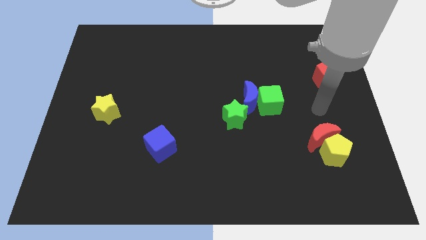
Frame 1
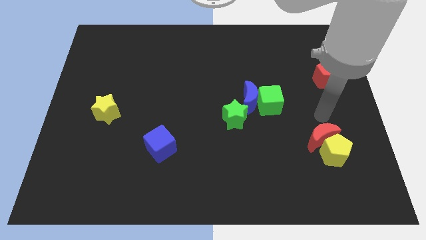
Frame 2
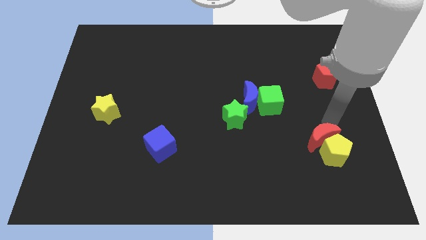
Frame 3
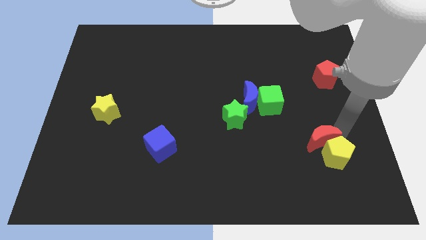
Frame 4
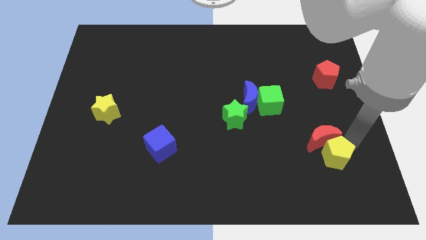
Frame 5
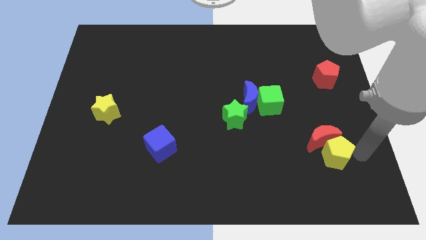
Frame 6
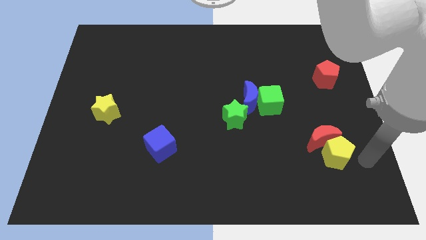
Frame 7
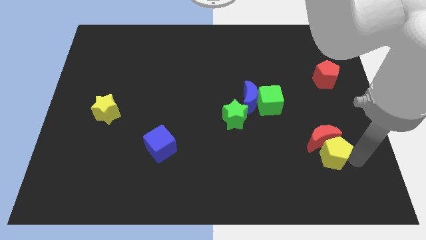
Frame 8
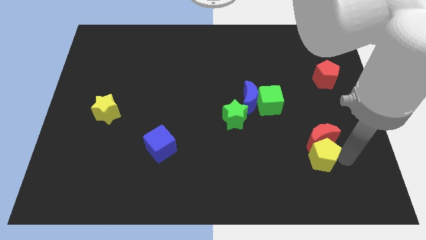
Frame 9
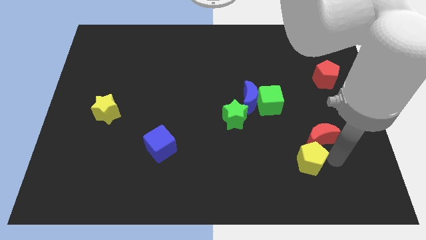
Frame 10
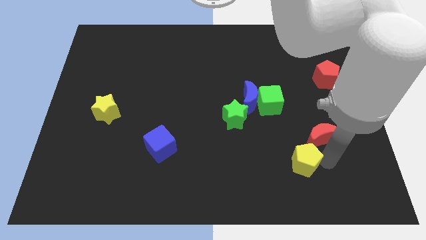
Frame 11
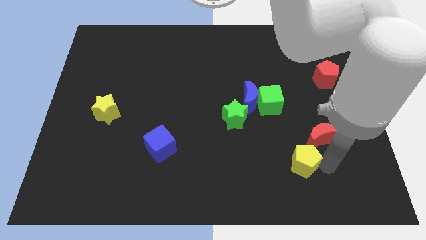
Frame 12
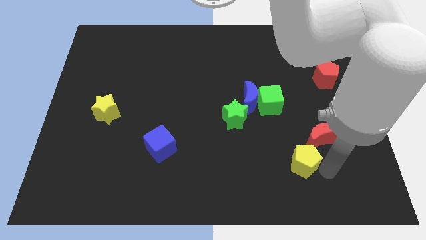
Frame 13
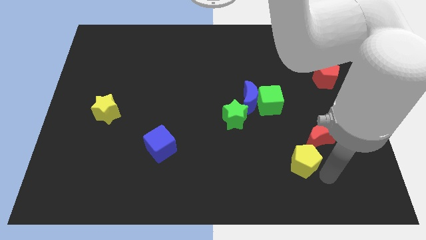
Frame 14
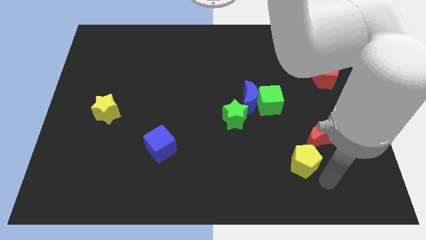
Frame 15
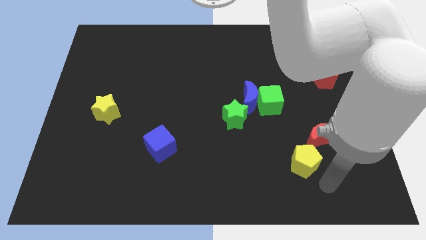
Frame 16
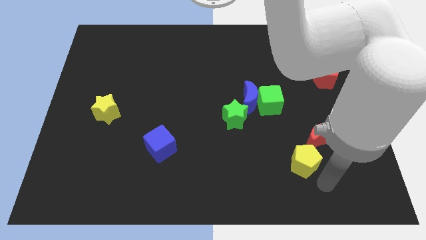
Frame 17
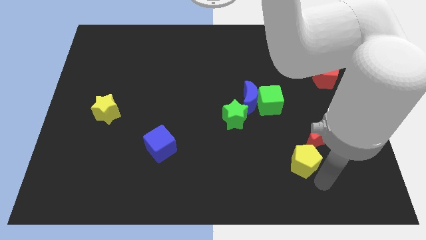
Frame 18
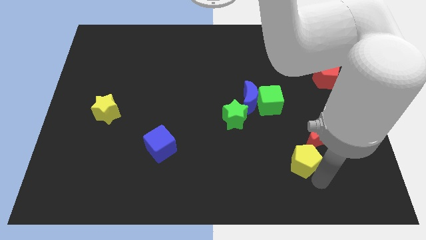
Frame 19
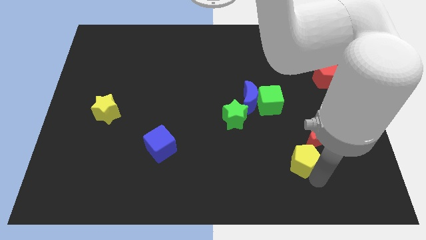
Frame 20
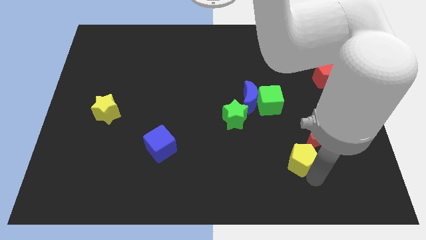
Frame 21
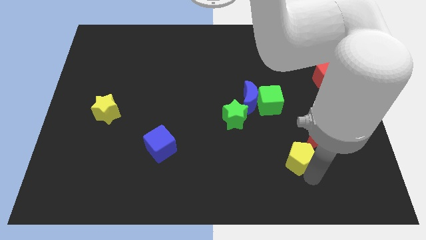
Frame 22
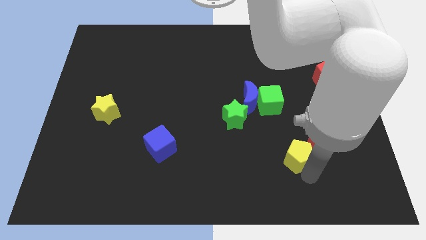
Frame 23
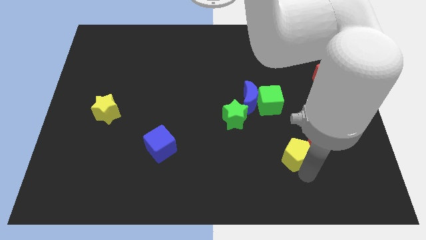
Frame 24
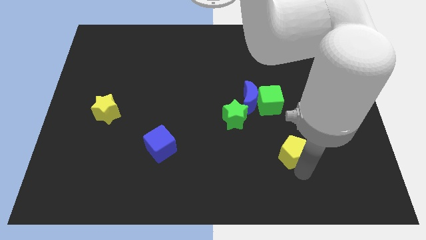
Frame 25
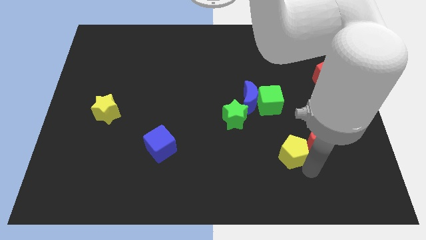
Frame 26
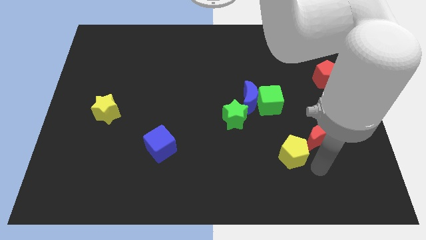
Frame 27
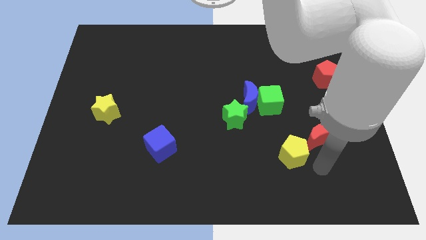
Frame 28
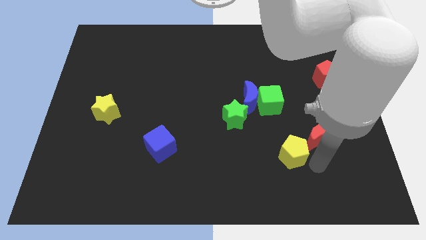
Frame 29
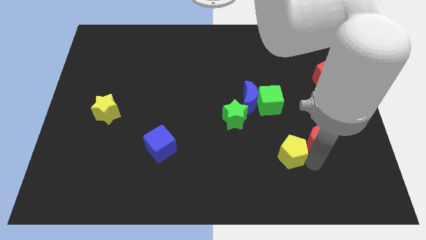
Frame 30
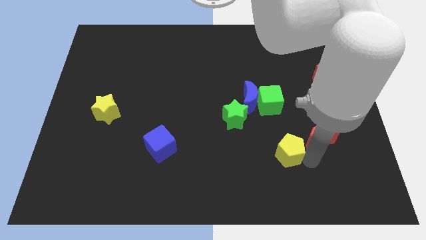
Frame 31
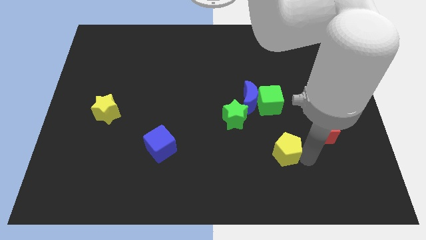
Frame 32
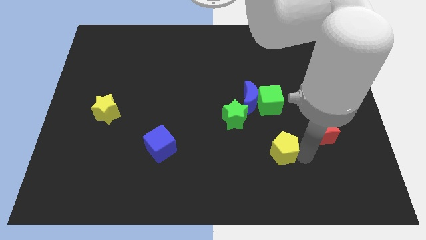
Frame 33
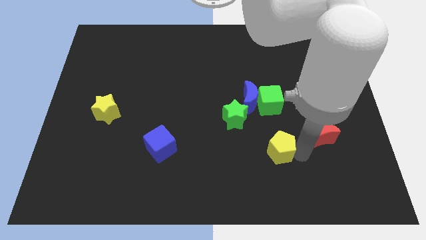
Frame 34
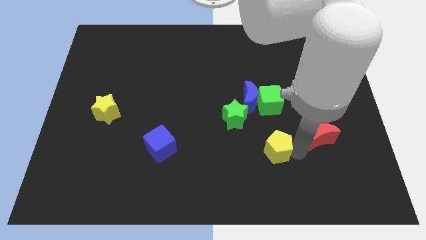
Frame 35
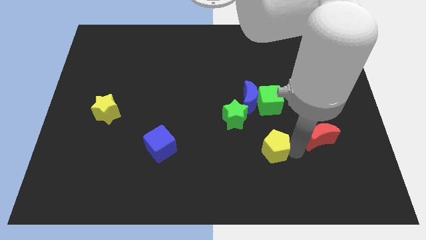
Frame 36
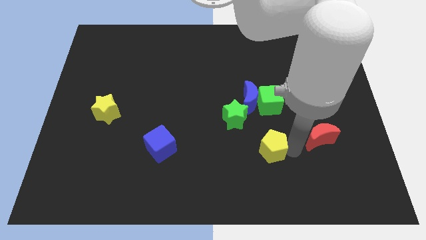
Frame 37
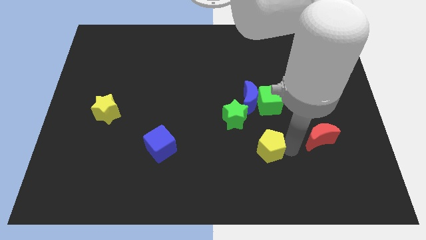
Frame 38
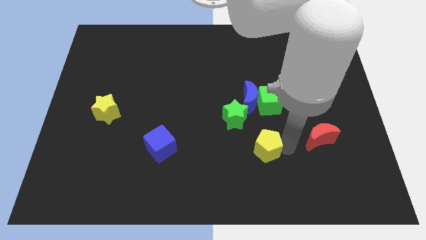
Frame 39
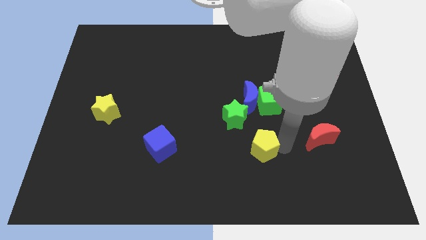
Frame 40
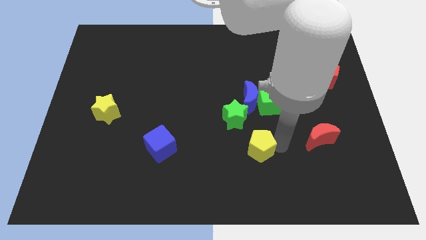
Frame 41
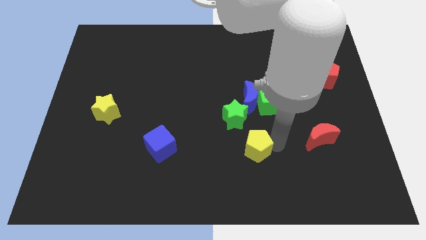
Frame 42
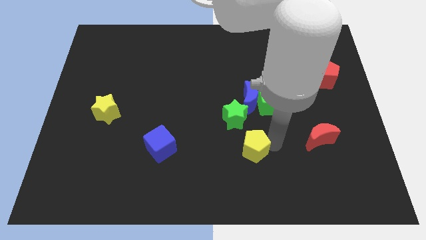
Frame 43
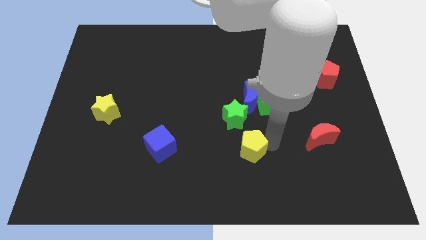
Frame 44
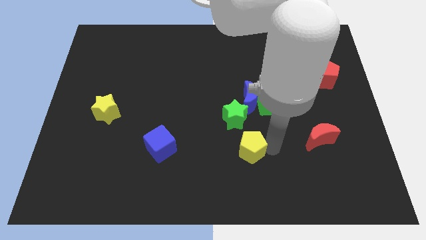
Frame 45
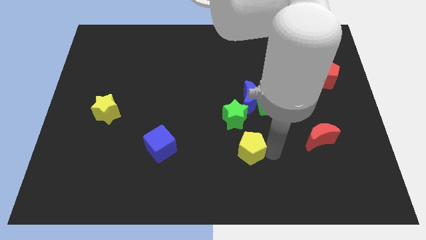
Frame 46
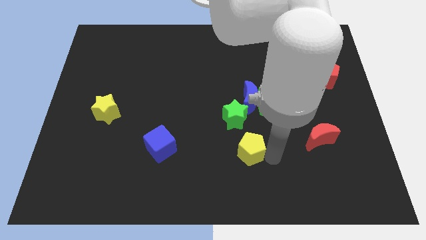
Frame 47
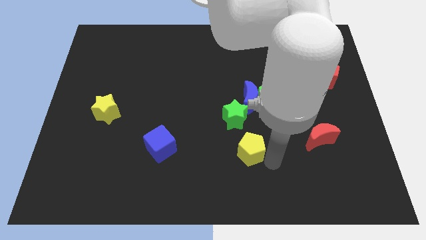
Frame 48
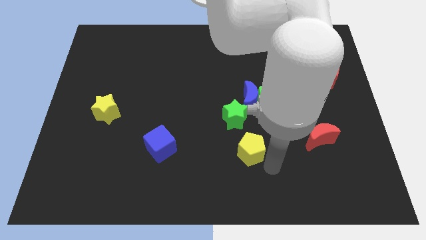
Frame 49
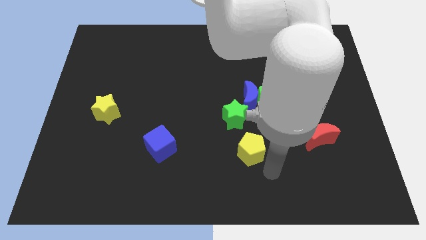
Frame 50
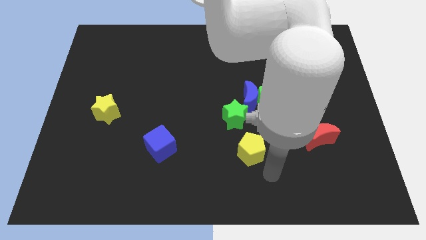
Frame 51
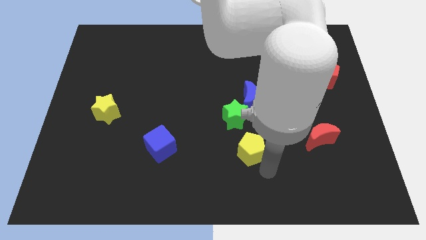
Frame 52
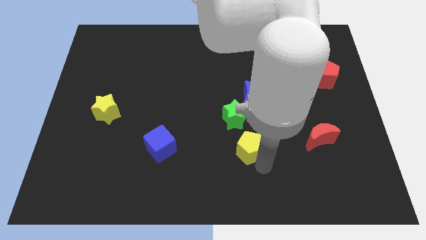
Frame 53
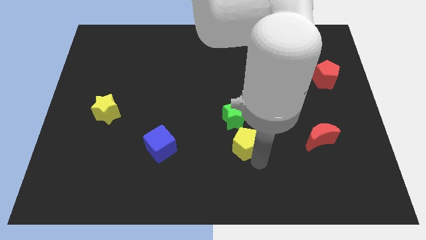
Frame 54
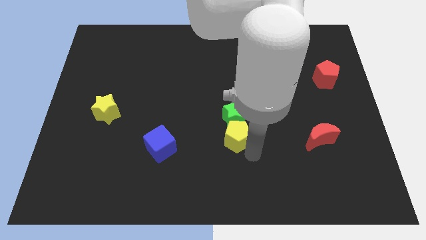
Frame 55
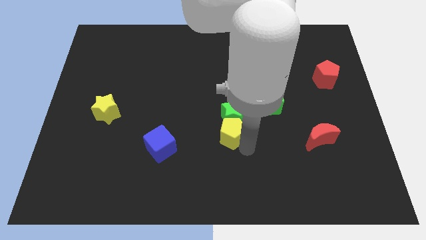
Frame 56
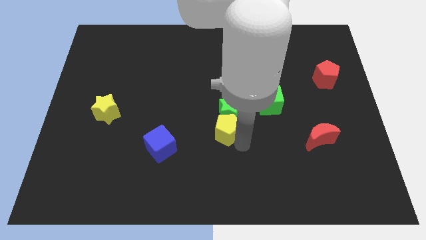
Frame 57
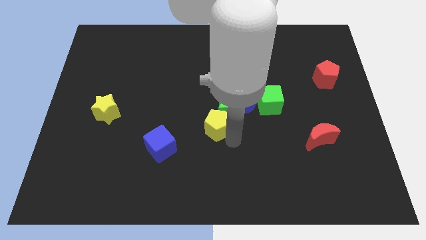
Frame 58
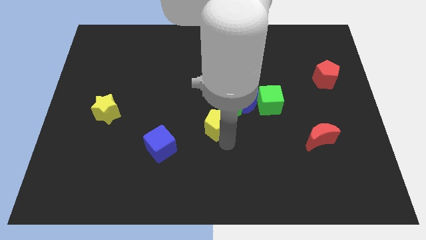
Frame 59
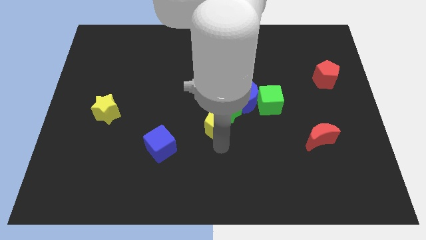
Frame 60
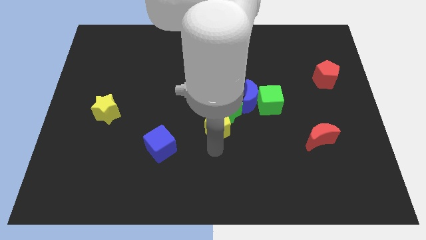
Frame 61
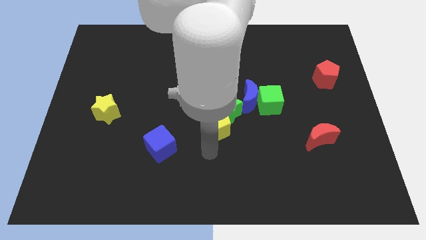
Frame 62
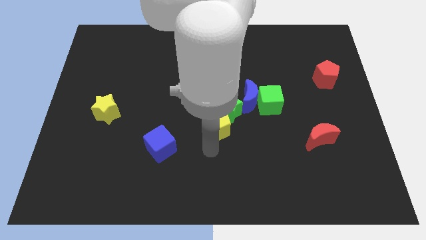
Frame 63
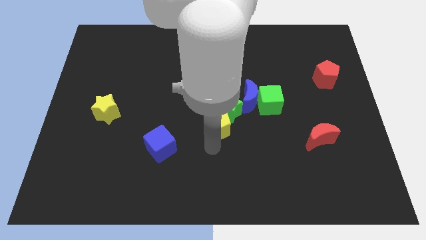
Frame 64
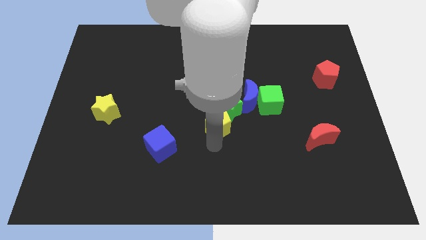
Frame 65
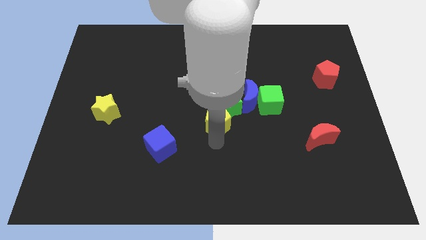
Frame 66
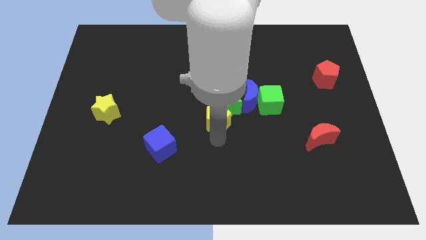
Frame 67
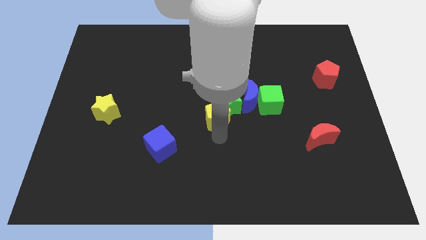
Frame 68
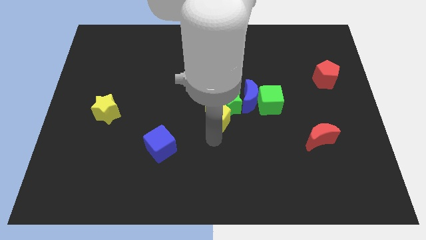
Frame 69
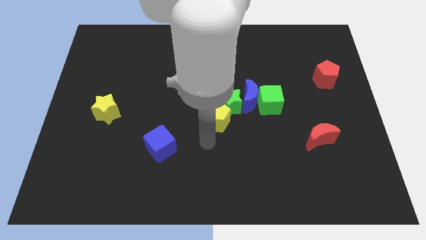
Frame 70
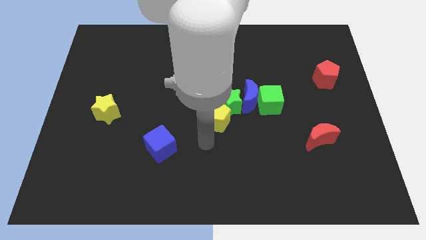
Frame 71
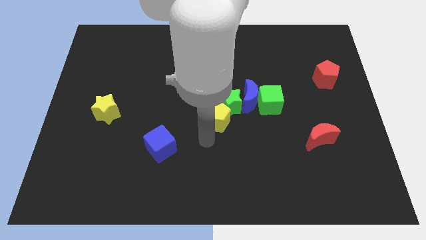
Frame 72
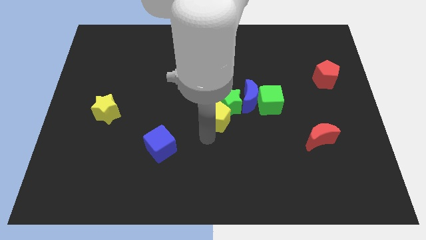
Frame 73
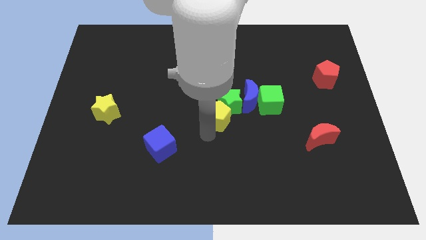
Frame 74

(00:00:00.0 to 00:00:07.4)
move the yellow pentagon left of the green cube

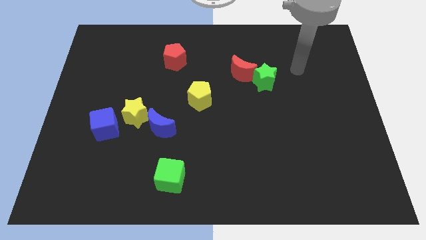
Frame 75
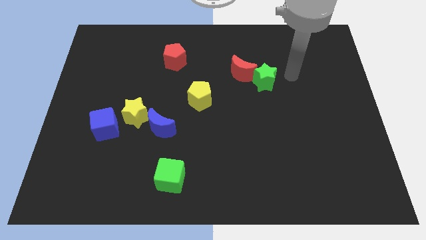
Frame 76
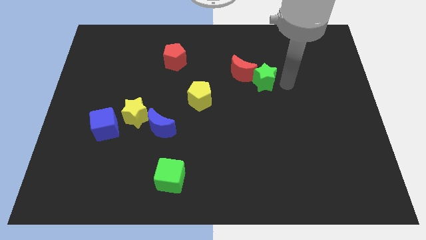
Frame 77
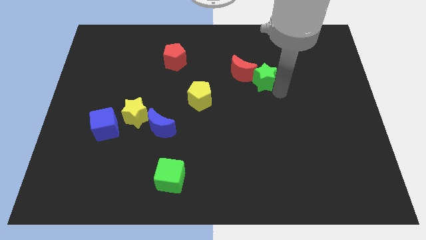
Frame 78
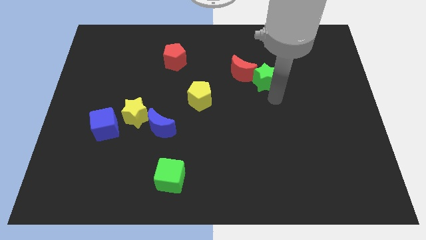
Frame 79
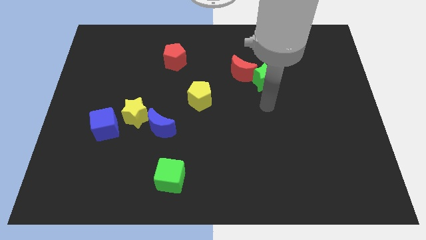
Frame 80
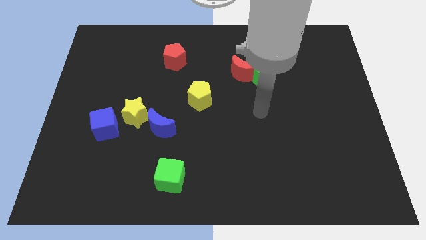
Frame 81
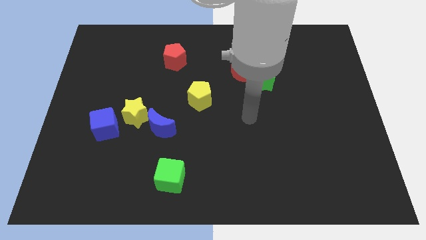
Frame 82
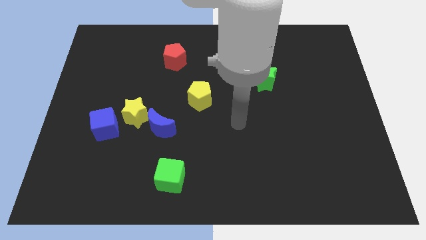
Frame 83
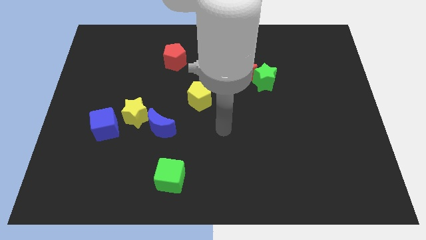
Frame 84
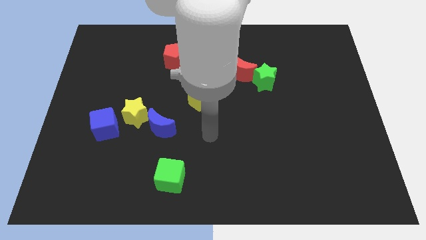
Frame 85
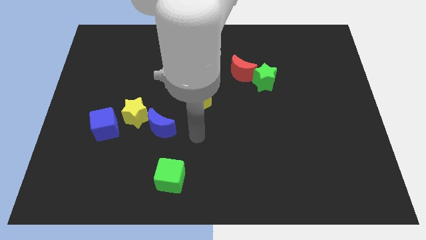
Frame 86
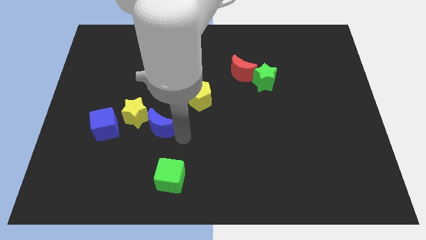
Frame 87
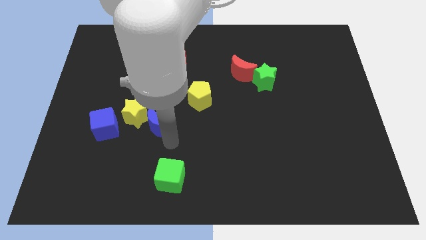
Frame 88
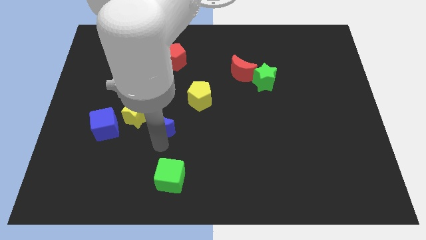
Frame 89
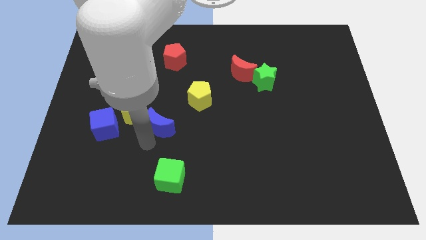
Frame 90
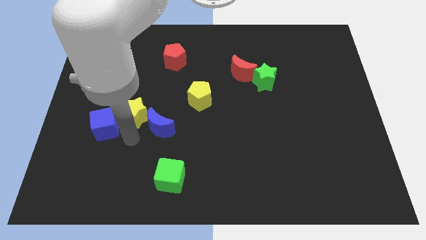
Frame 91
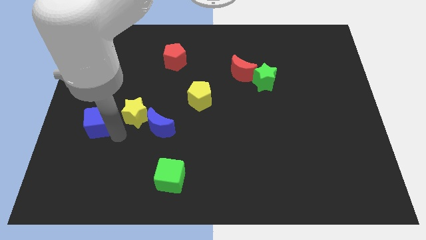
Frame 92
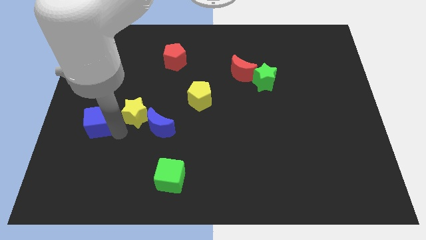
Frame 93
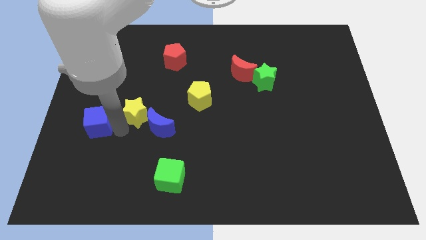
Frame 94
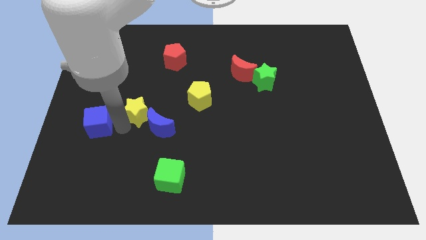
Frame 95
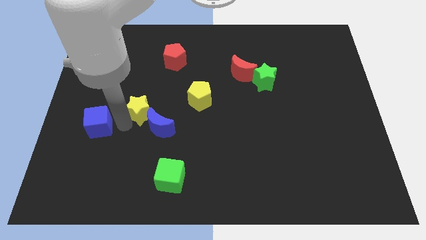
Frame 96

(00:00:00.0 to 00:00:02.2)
push the yellow star just left of the yellow pentagon
